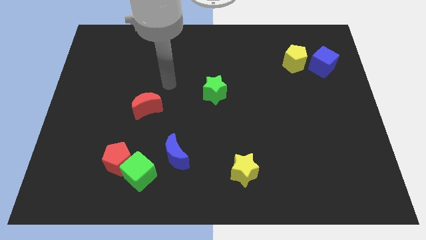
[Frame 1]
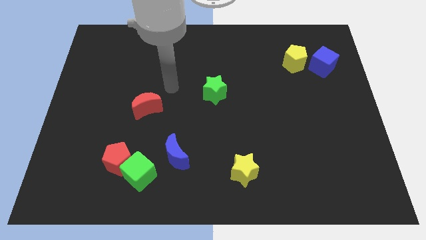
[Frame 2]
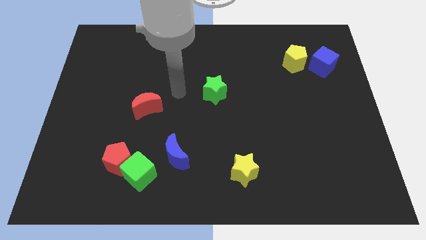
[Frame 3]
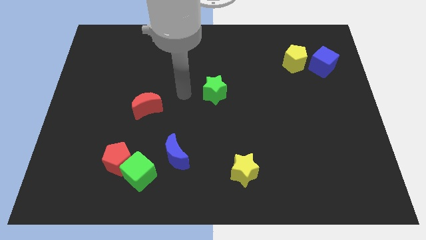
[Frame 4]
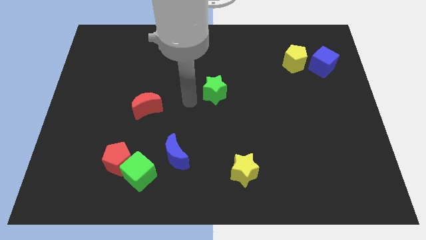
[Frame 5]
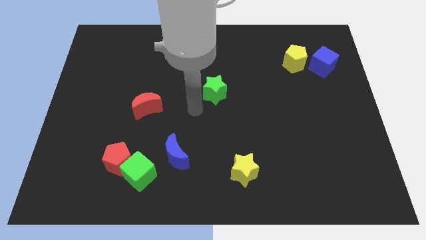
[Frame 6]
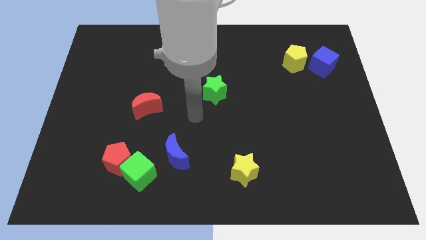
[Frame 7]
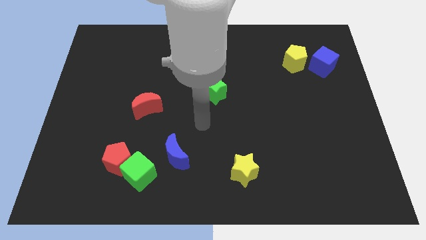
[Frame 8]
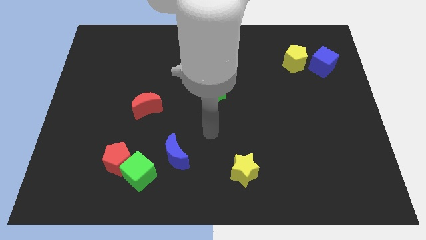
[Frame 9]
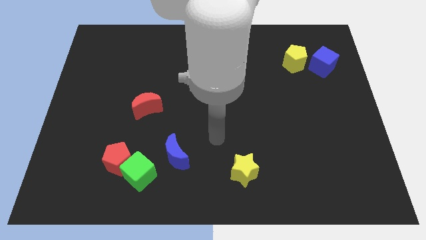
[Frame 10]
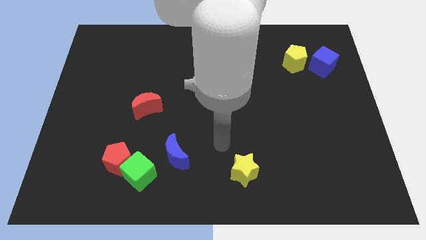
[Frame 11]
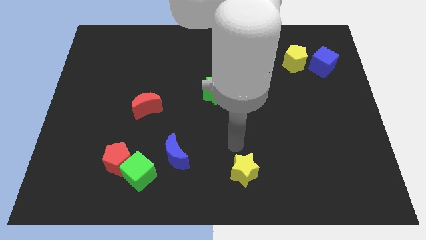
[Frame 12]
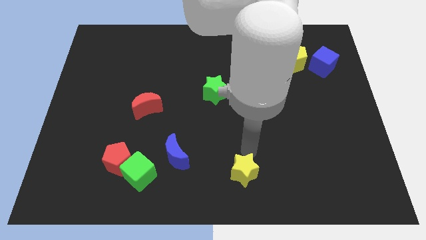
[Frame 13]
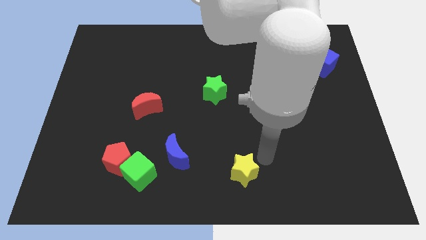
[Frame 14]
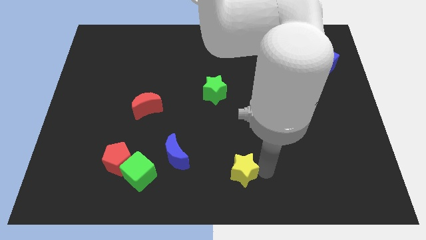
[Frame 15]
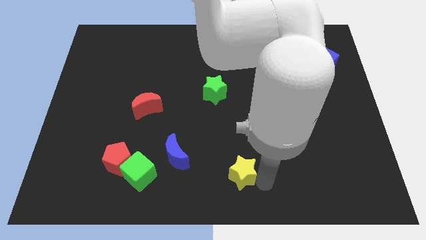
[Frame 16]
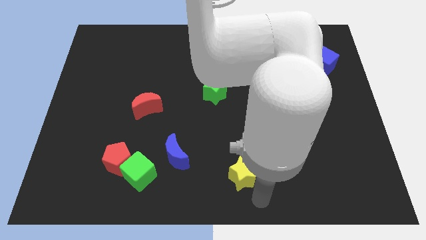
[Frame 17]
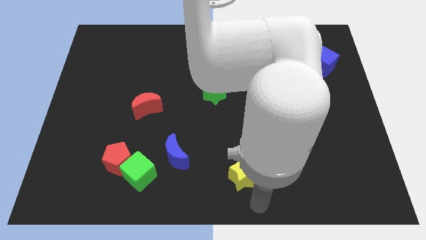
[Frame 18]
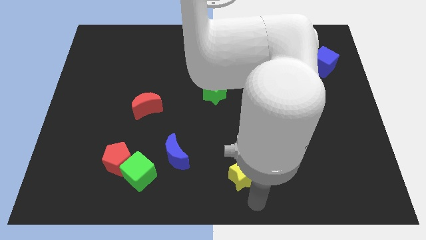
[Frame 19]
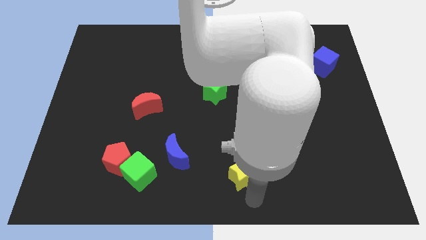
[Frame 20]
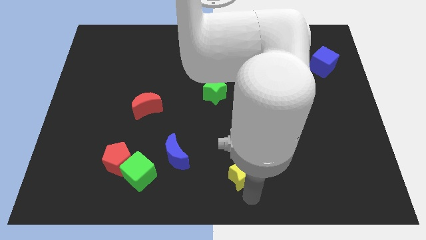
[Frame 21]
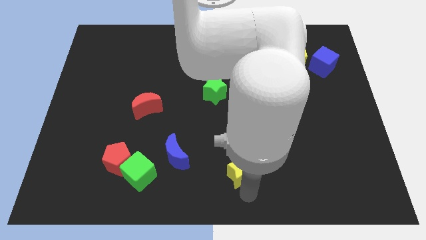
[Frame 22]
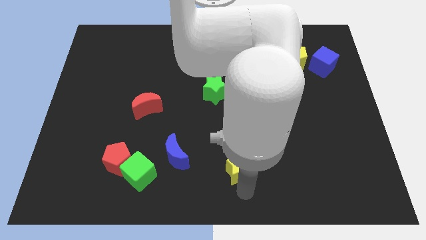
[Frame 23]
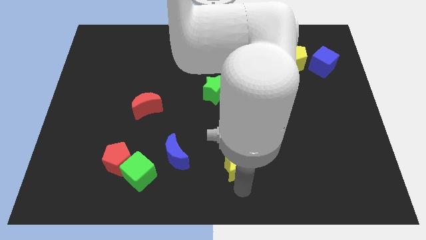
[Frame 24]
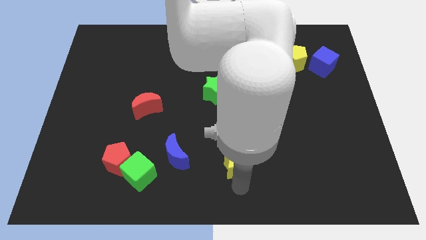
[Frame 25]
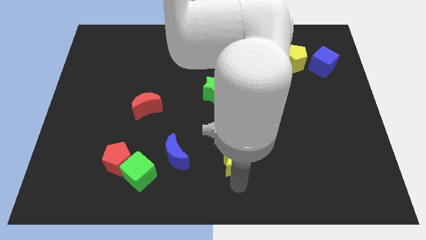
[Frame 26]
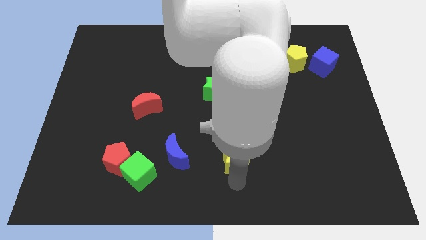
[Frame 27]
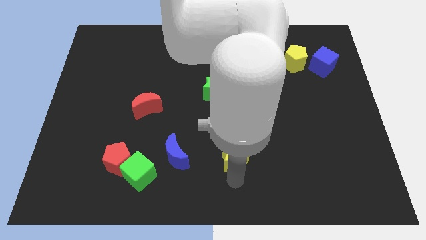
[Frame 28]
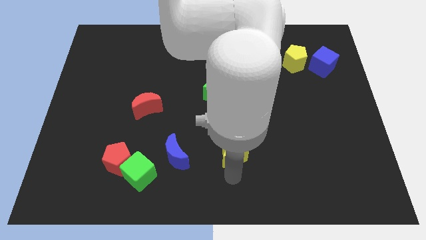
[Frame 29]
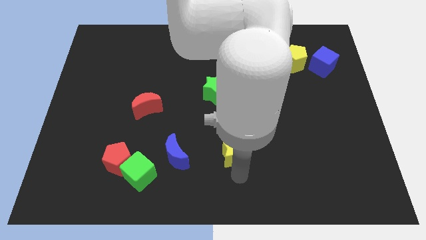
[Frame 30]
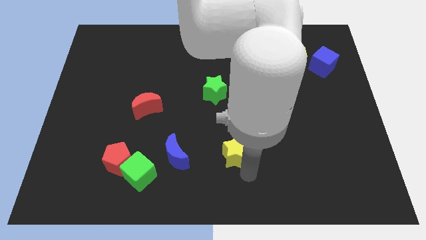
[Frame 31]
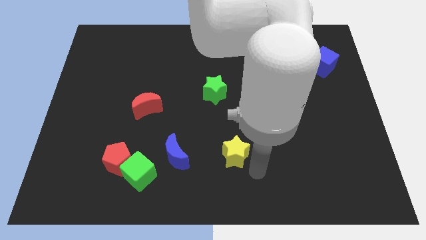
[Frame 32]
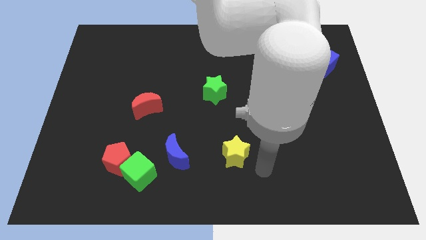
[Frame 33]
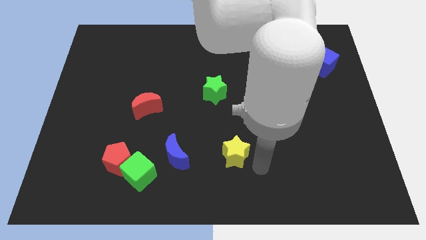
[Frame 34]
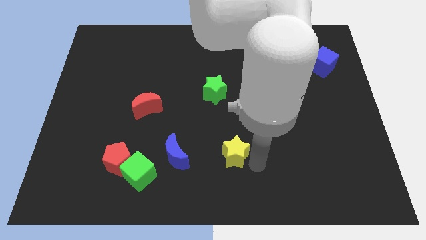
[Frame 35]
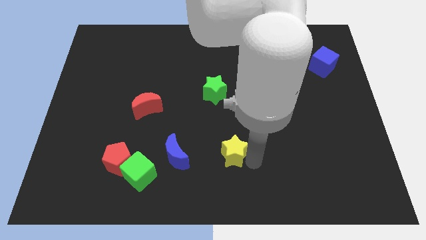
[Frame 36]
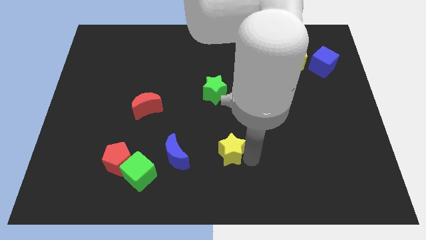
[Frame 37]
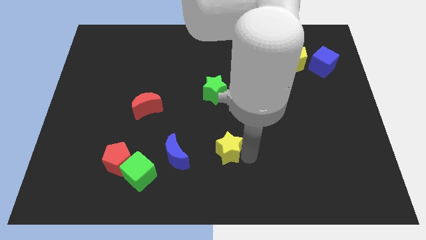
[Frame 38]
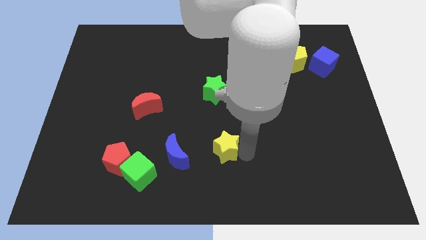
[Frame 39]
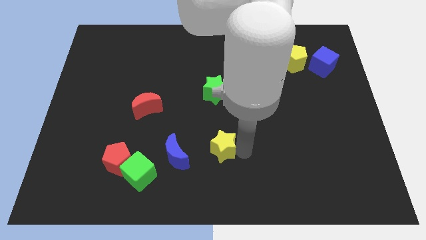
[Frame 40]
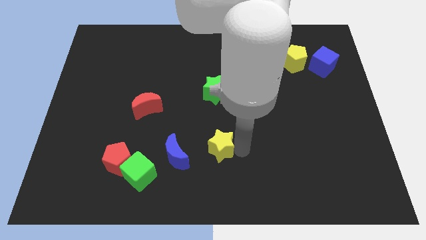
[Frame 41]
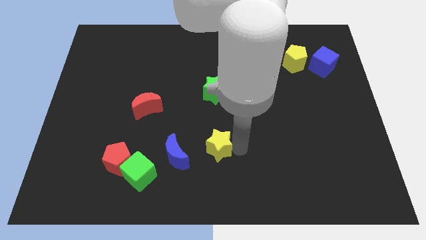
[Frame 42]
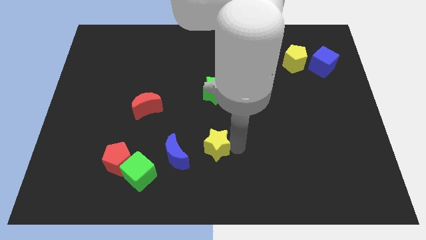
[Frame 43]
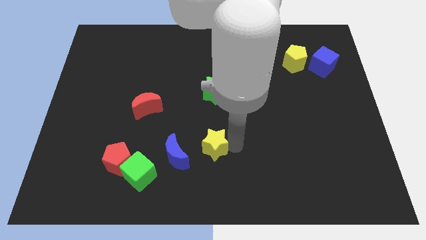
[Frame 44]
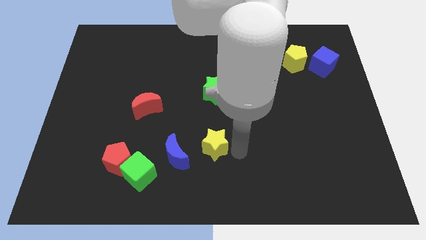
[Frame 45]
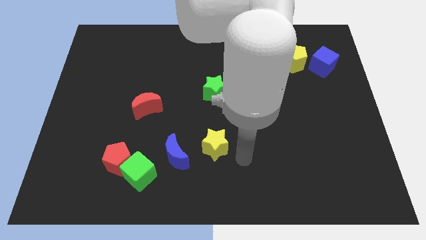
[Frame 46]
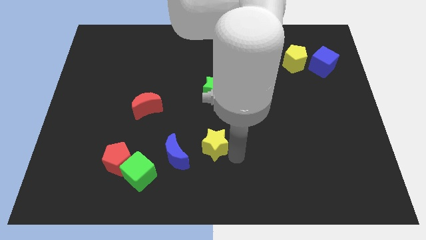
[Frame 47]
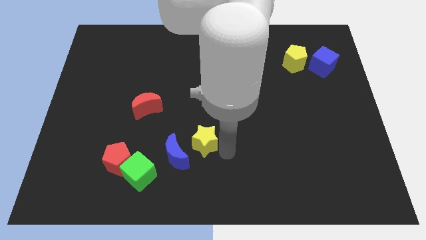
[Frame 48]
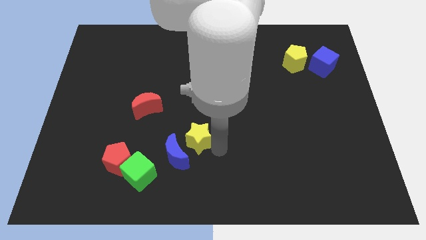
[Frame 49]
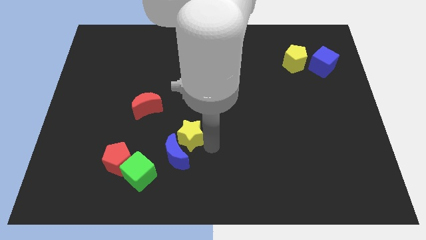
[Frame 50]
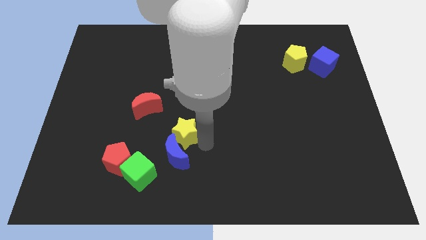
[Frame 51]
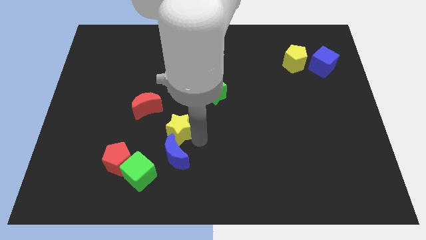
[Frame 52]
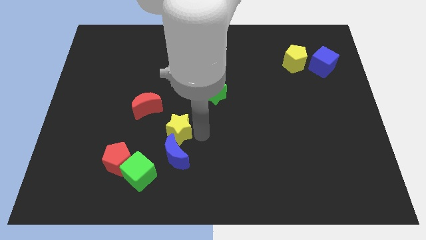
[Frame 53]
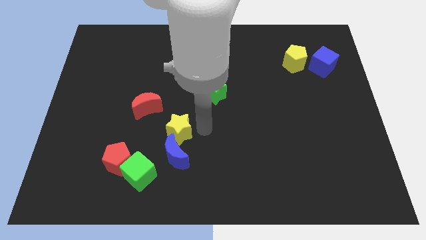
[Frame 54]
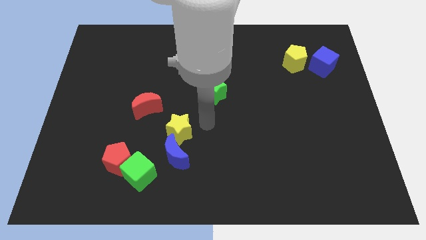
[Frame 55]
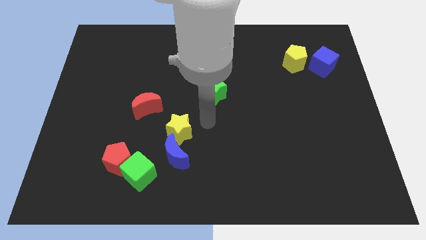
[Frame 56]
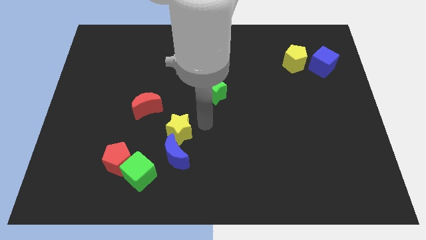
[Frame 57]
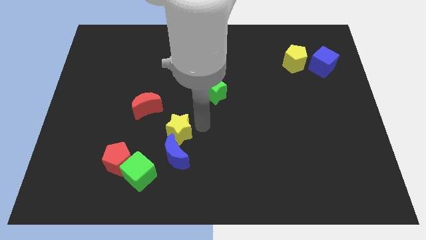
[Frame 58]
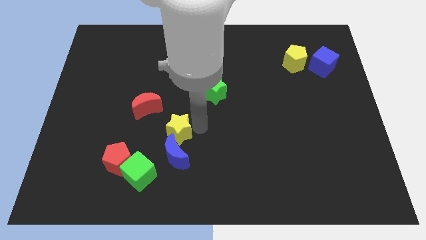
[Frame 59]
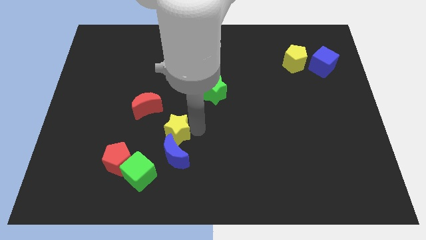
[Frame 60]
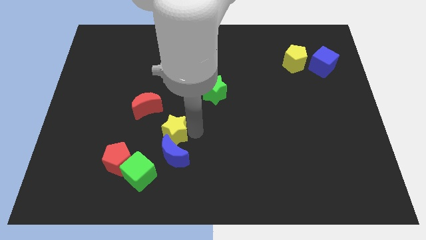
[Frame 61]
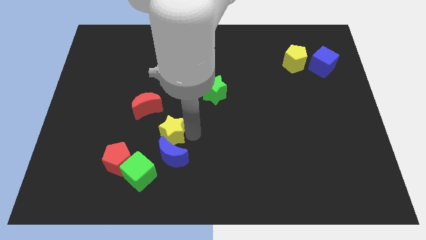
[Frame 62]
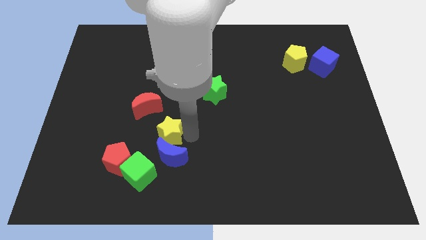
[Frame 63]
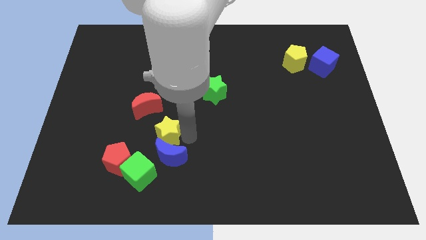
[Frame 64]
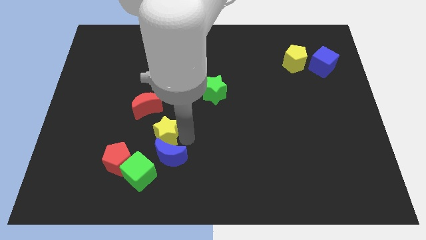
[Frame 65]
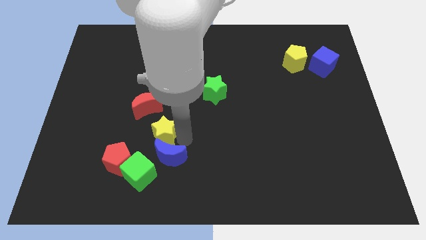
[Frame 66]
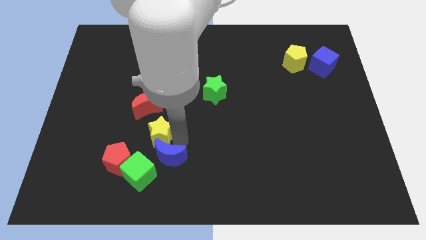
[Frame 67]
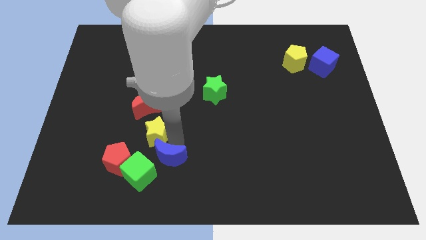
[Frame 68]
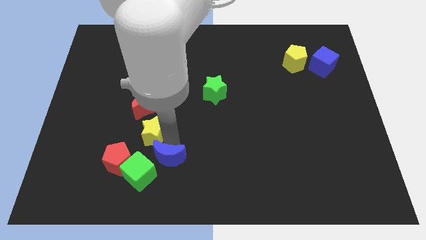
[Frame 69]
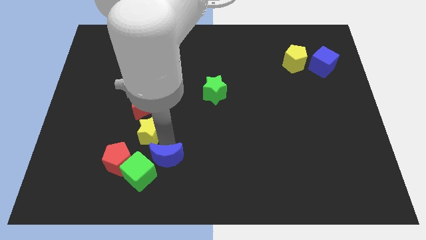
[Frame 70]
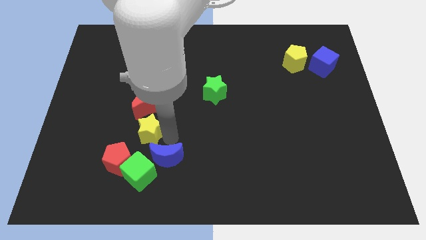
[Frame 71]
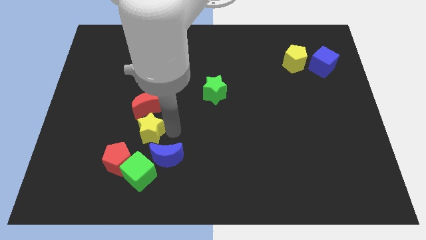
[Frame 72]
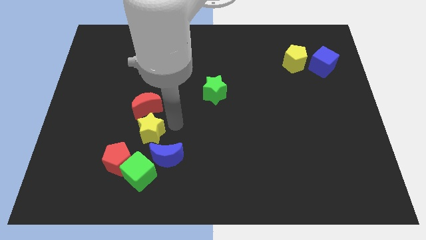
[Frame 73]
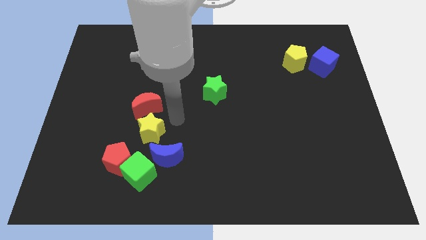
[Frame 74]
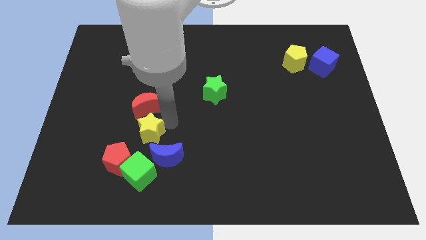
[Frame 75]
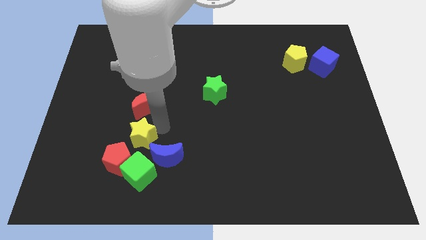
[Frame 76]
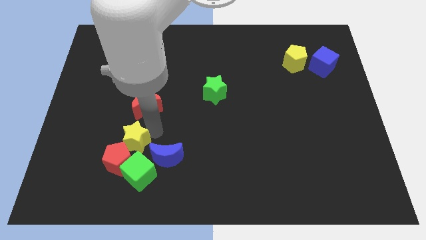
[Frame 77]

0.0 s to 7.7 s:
put the yellow star diagonally up and to the left of the green cube
